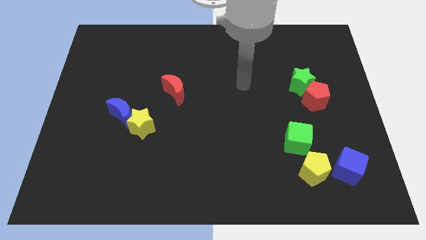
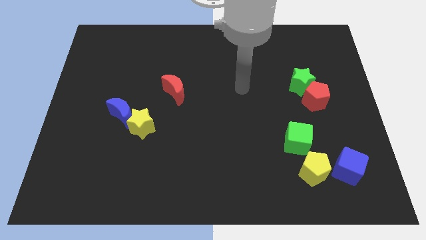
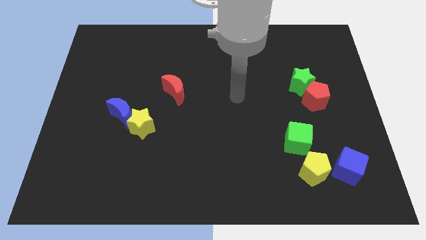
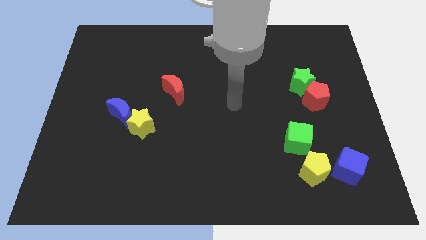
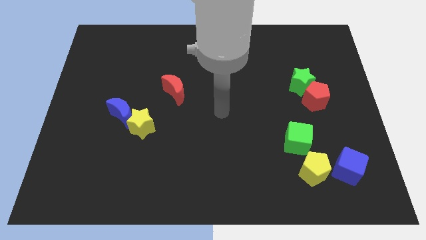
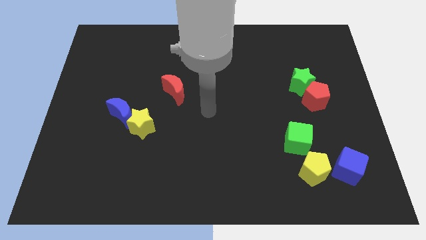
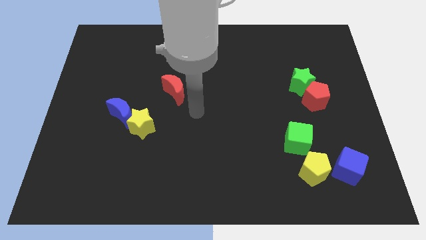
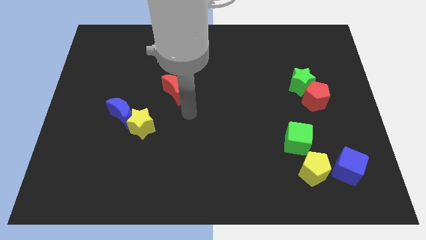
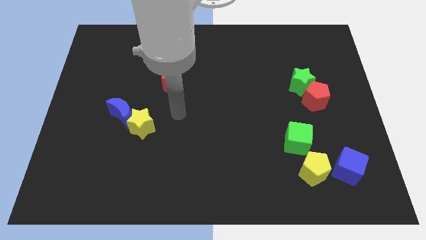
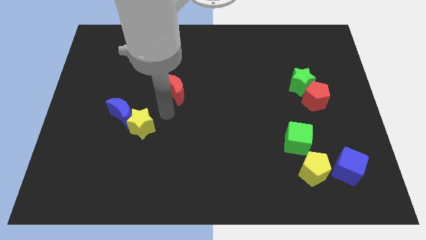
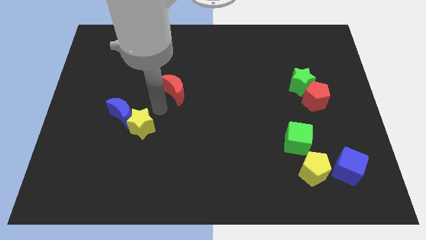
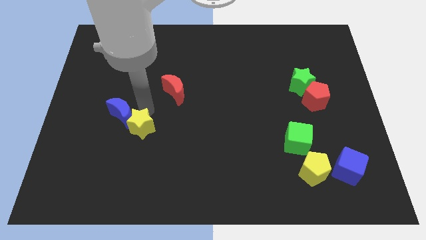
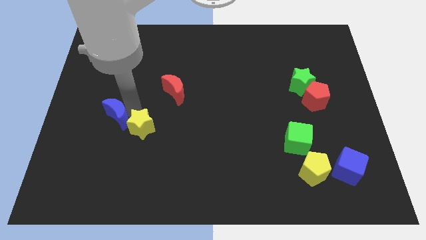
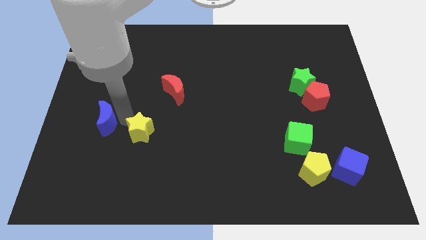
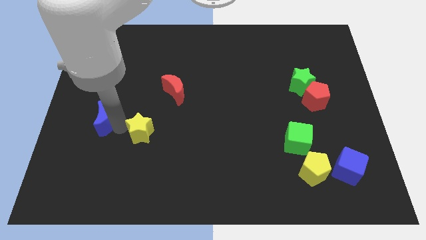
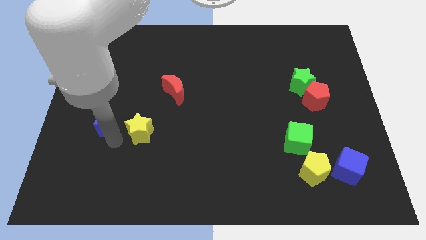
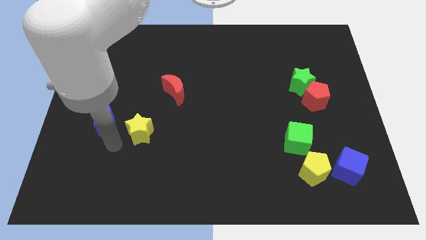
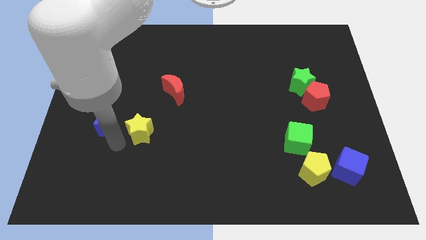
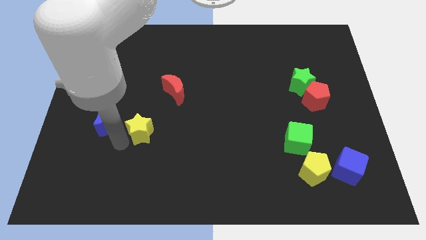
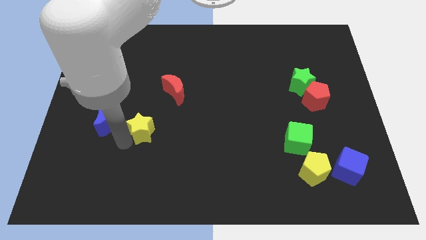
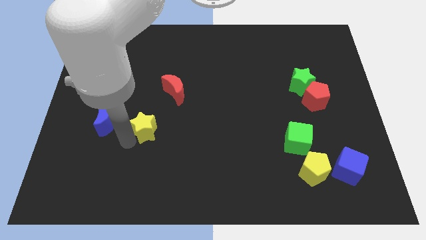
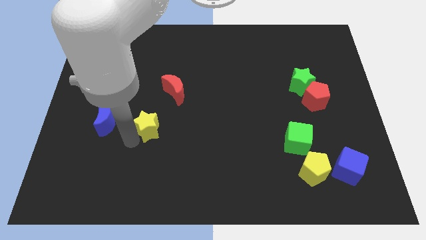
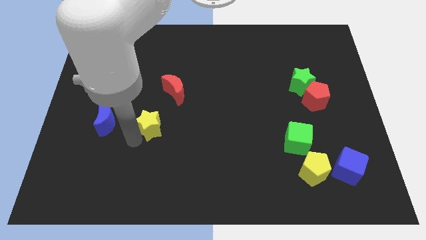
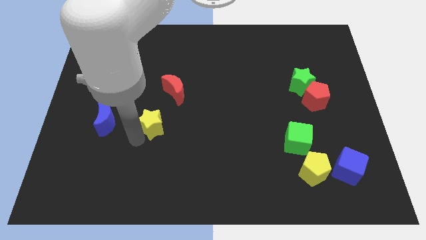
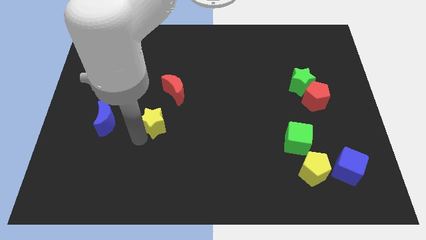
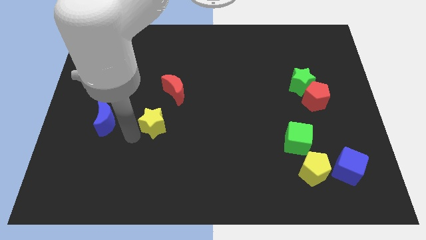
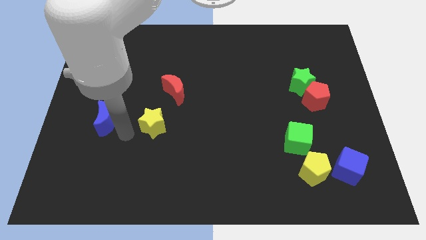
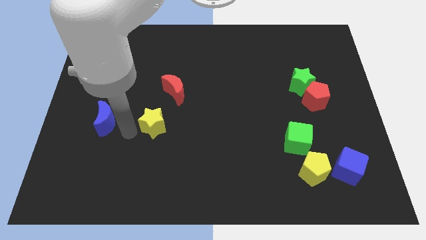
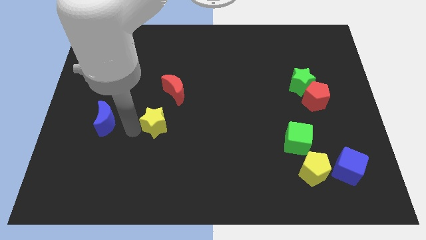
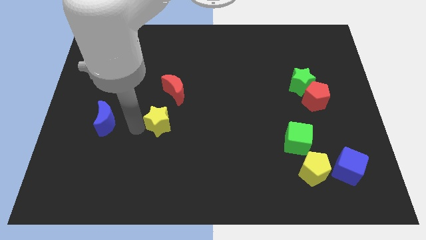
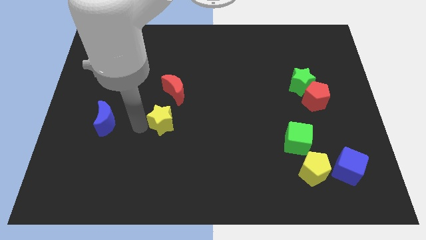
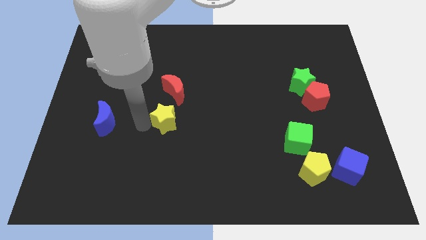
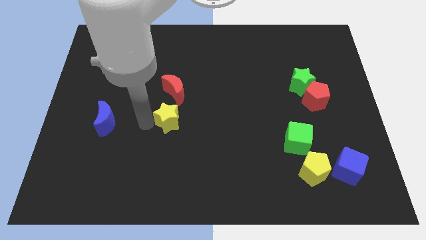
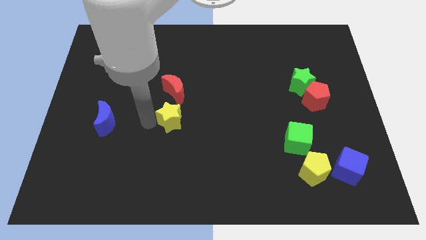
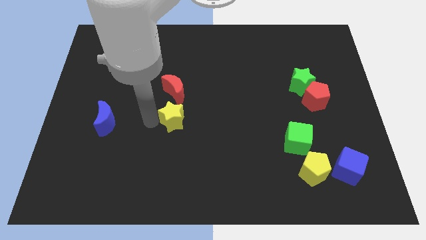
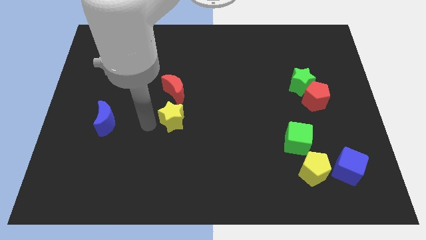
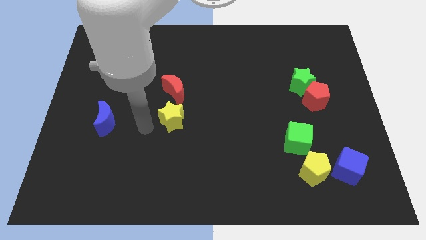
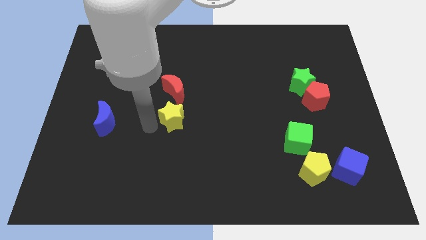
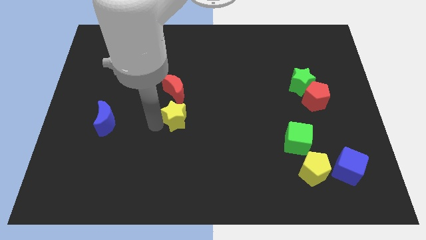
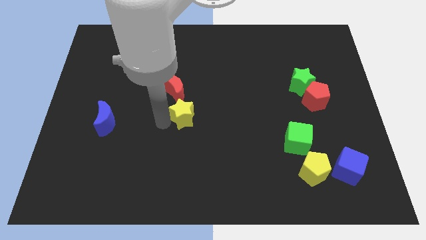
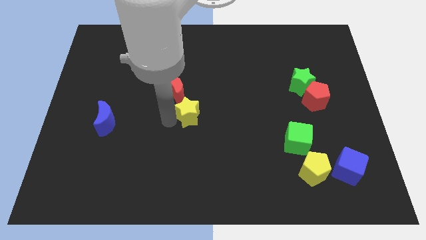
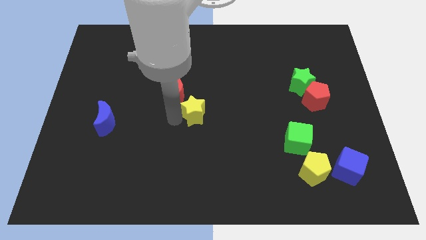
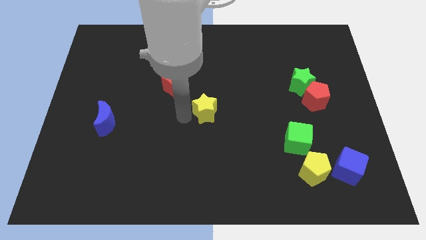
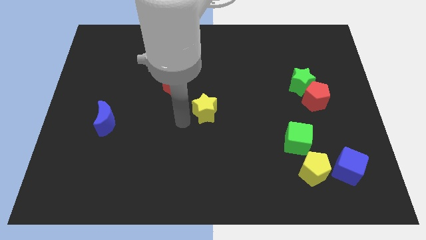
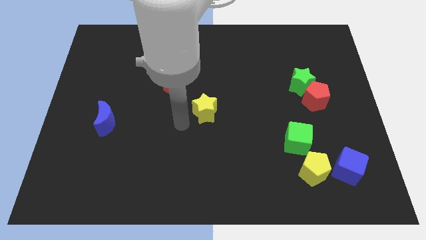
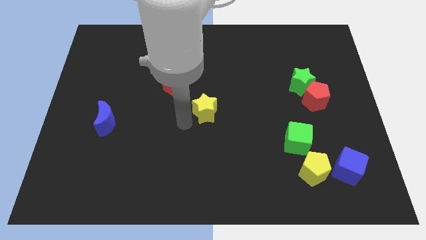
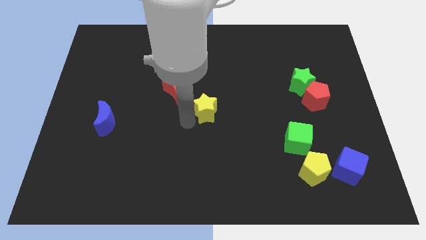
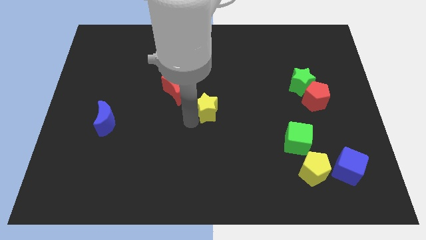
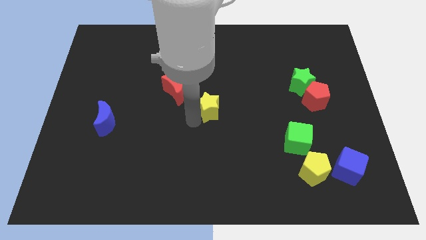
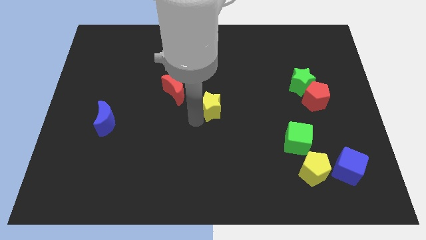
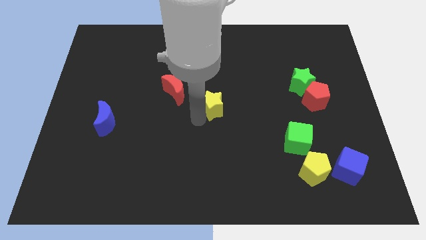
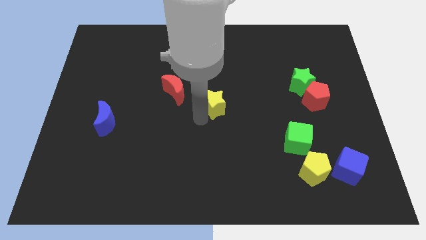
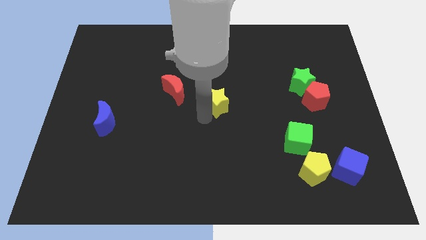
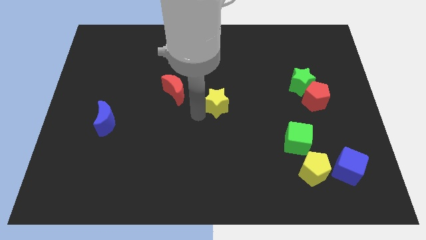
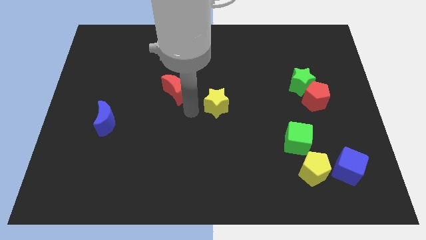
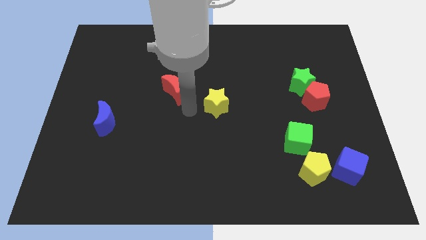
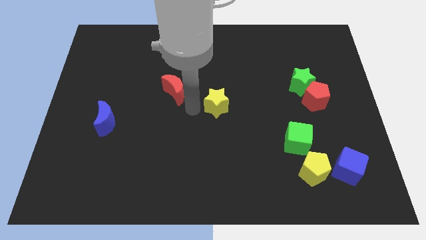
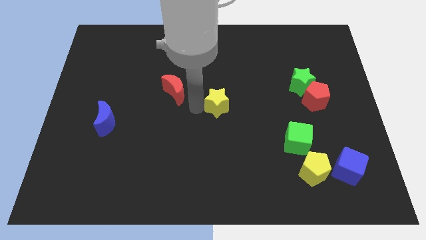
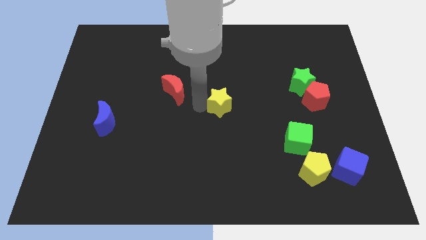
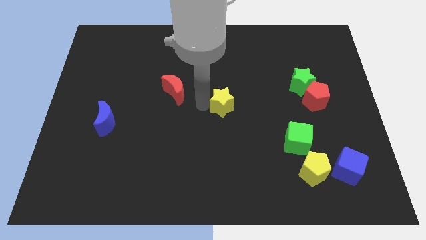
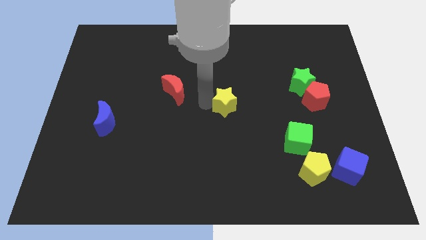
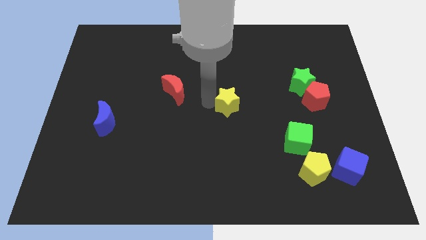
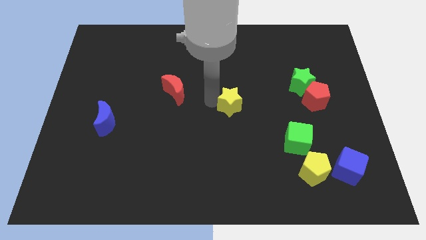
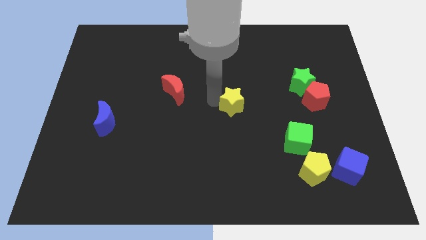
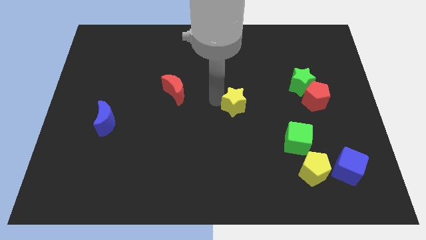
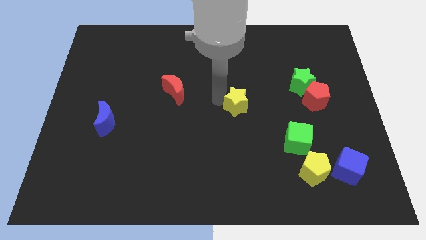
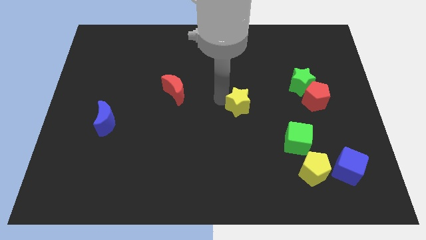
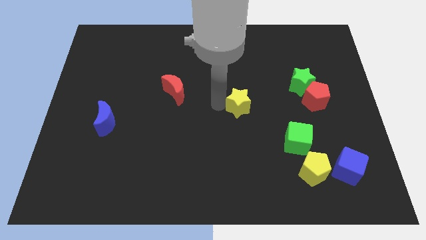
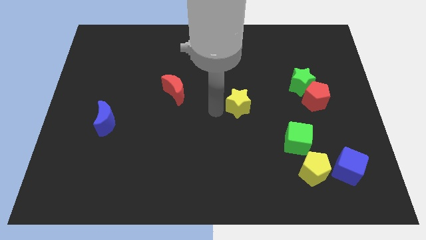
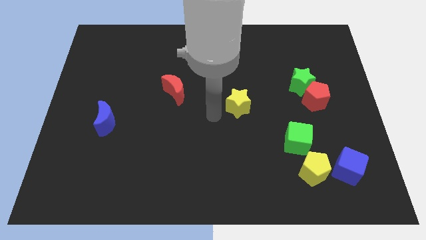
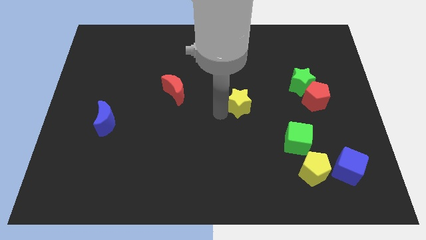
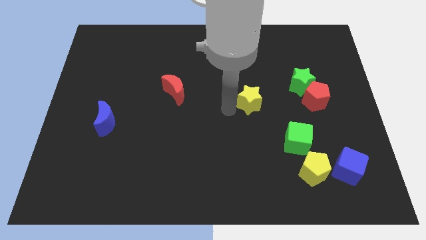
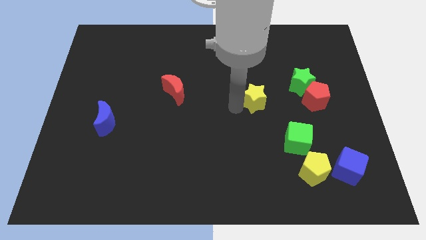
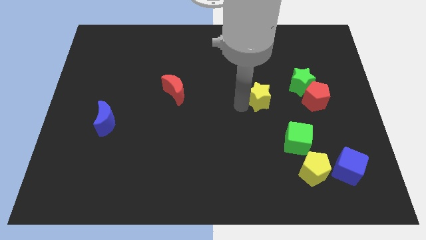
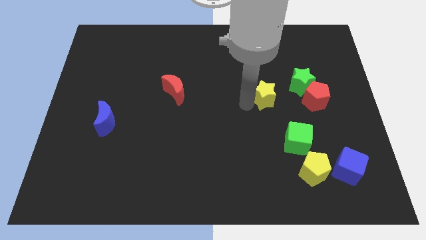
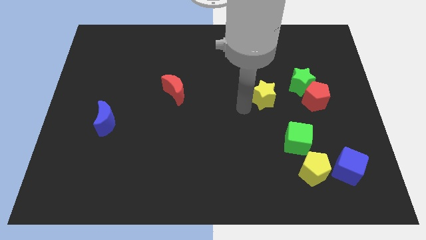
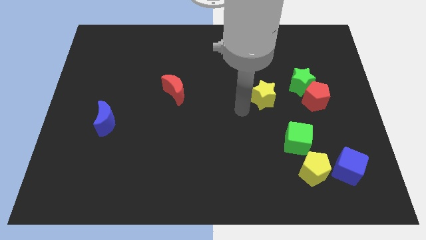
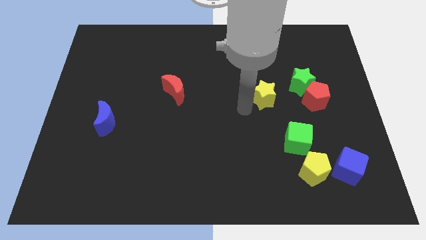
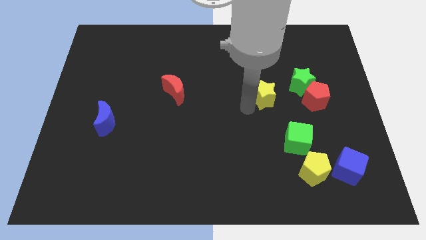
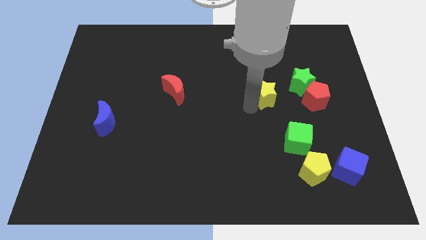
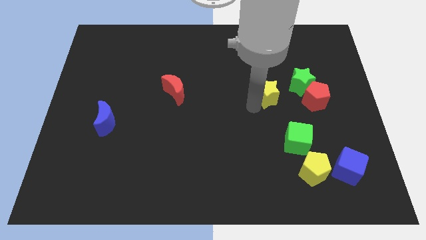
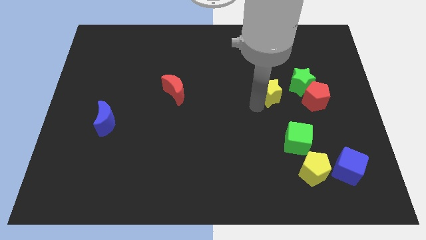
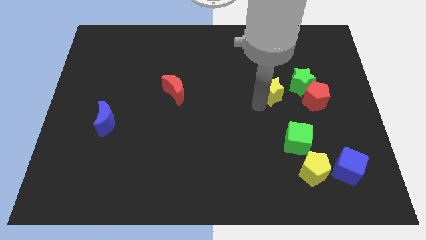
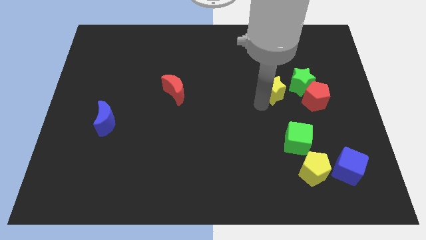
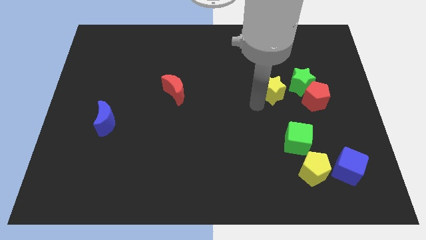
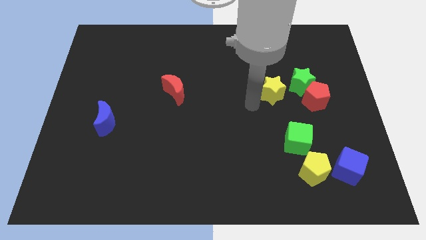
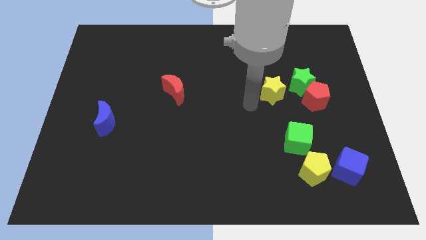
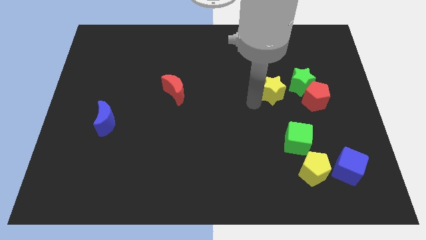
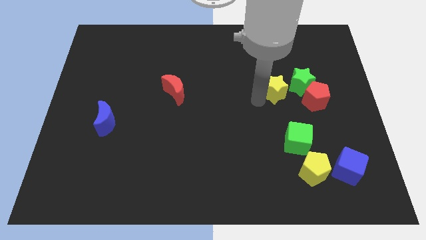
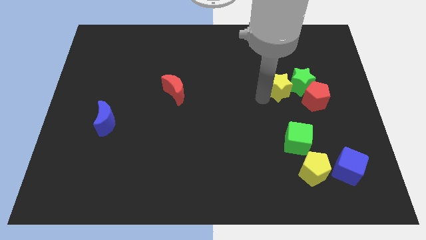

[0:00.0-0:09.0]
move the yellow star close to the green star
